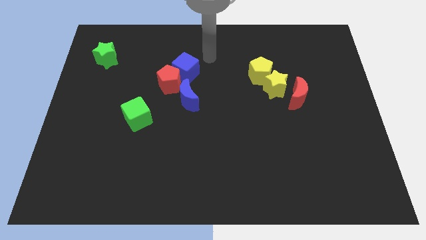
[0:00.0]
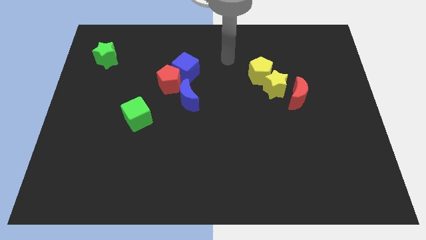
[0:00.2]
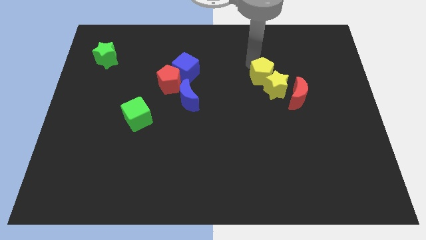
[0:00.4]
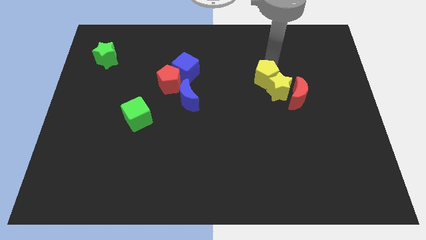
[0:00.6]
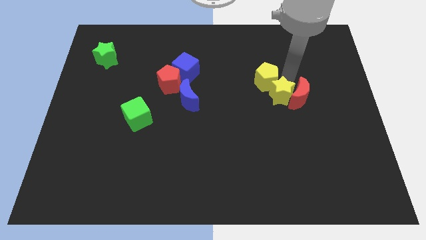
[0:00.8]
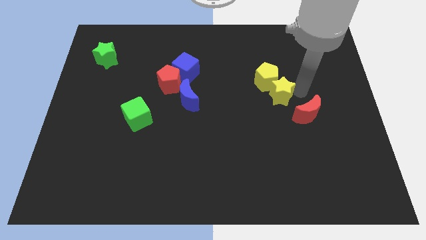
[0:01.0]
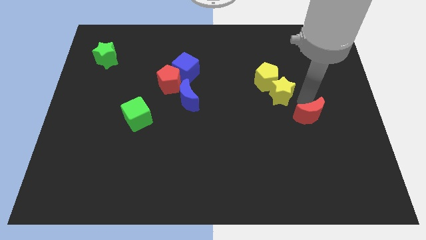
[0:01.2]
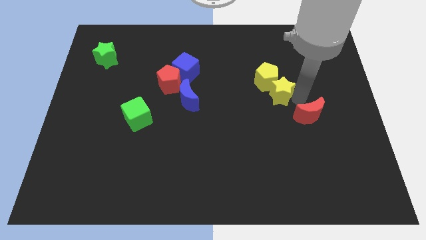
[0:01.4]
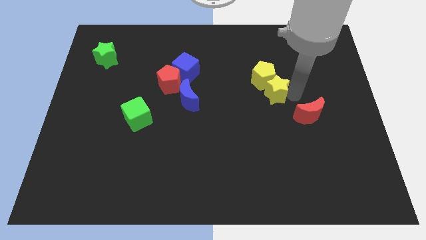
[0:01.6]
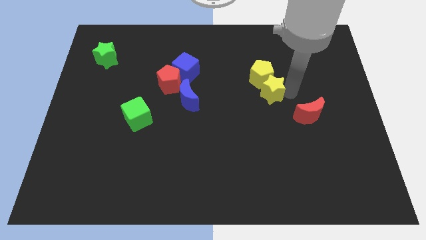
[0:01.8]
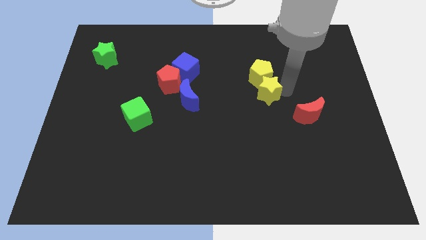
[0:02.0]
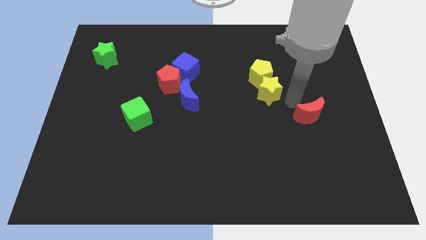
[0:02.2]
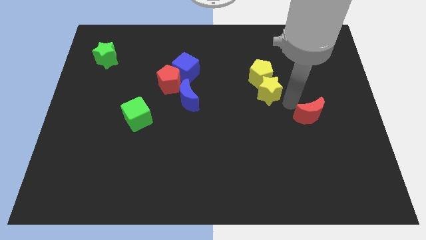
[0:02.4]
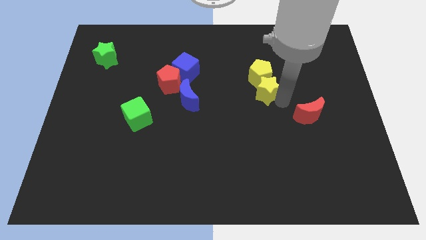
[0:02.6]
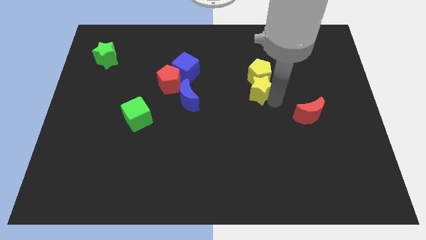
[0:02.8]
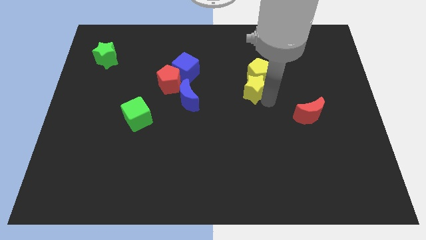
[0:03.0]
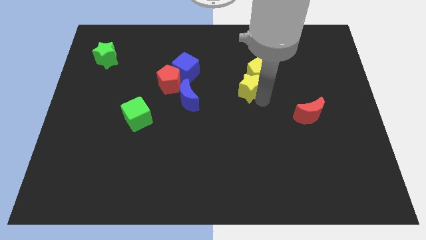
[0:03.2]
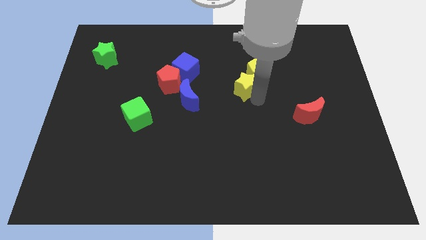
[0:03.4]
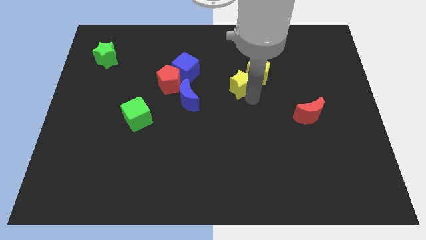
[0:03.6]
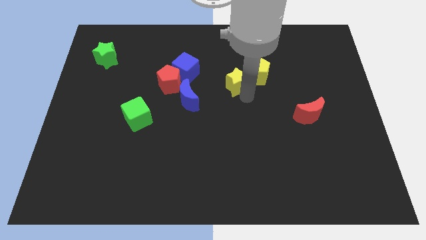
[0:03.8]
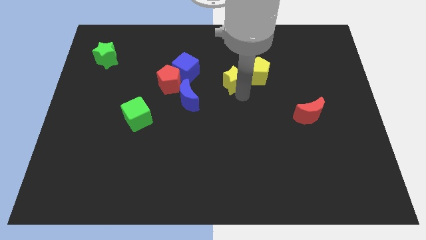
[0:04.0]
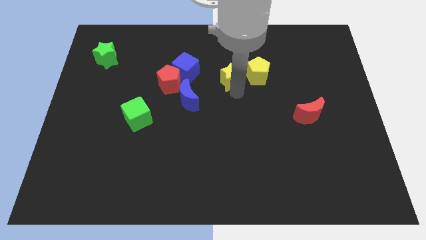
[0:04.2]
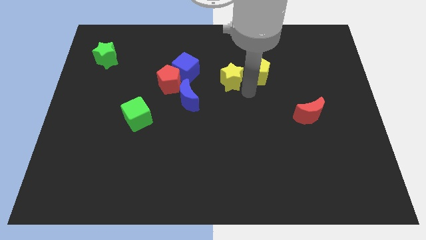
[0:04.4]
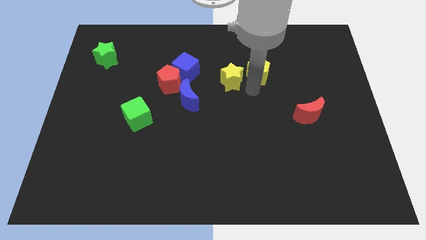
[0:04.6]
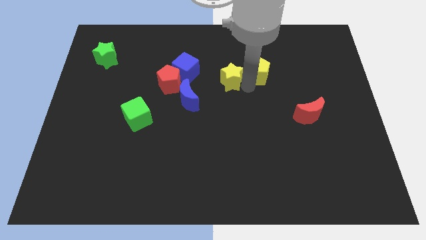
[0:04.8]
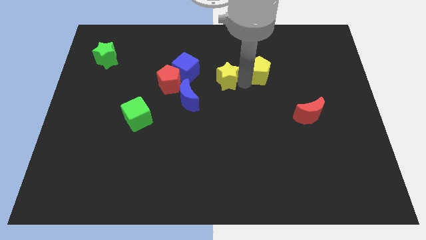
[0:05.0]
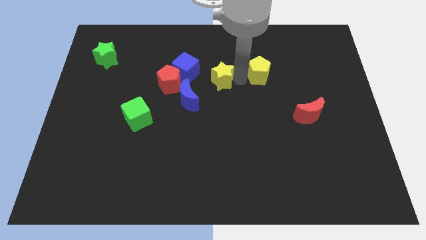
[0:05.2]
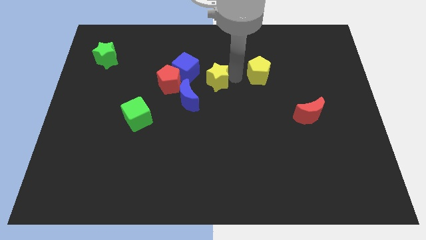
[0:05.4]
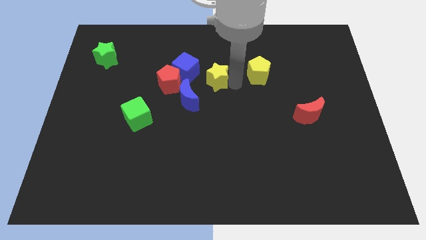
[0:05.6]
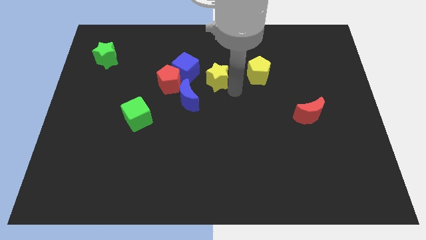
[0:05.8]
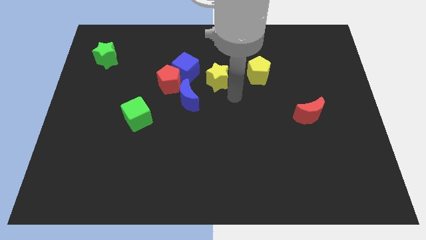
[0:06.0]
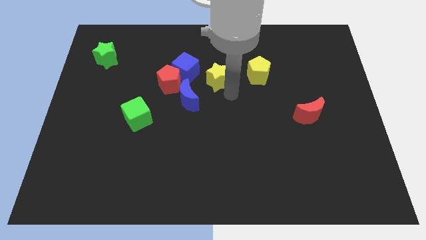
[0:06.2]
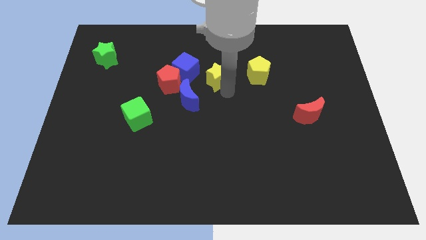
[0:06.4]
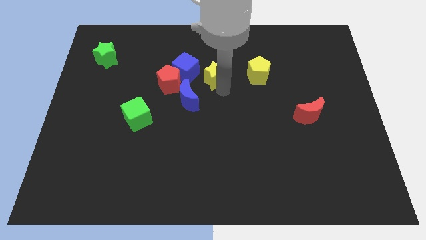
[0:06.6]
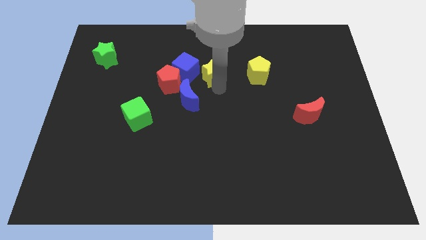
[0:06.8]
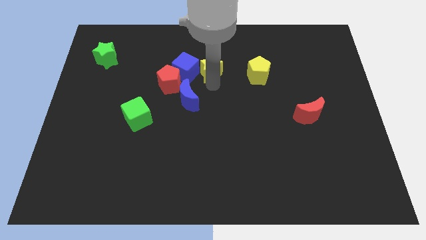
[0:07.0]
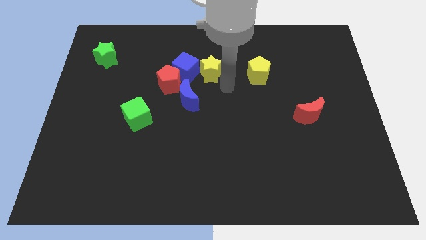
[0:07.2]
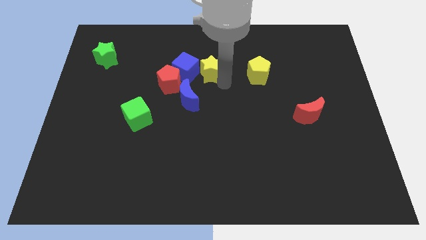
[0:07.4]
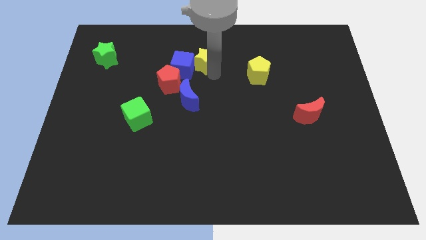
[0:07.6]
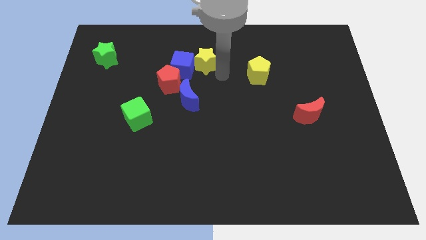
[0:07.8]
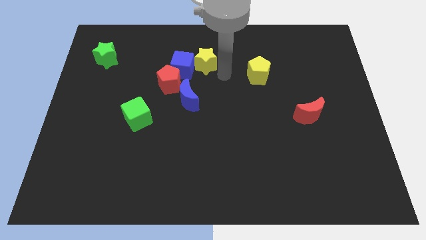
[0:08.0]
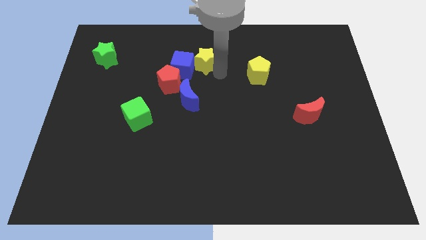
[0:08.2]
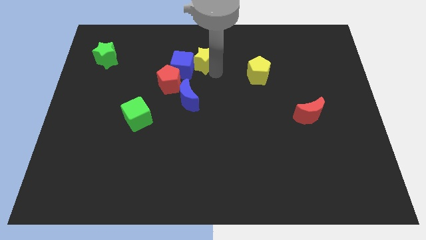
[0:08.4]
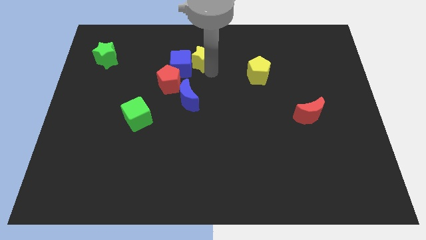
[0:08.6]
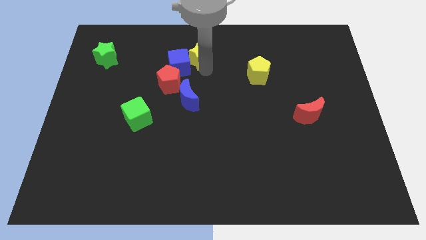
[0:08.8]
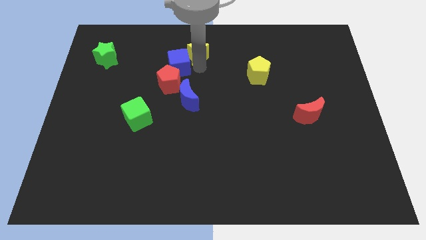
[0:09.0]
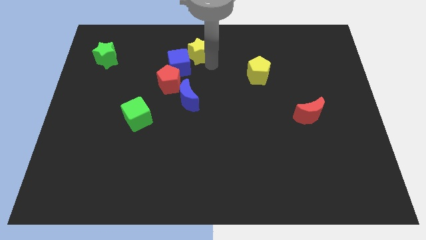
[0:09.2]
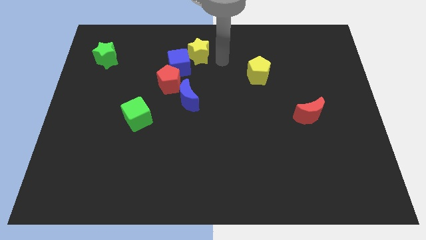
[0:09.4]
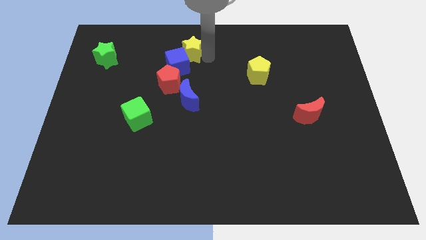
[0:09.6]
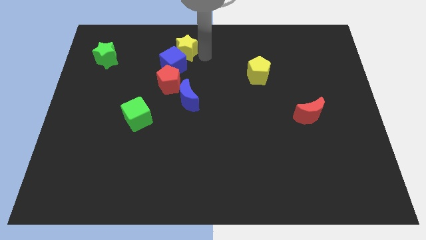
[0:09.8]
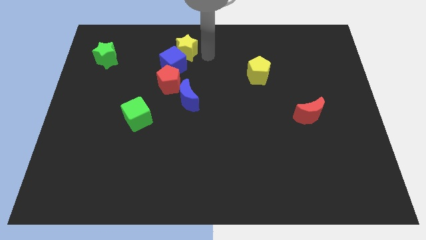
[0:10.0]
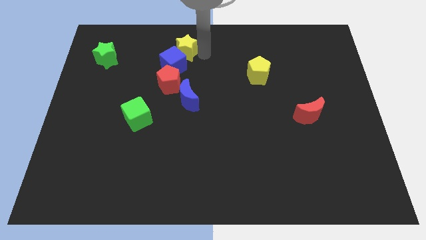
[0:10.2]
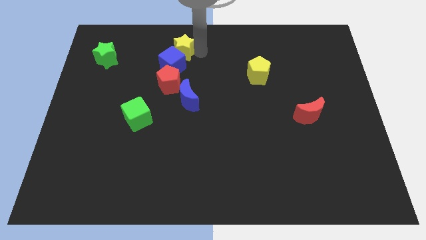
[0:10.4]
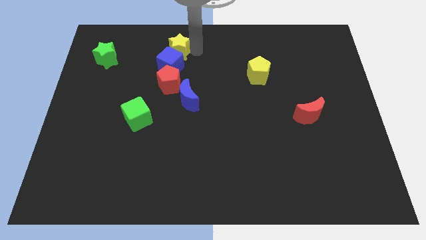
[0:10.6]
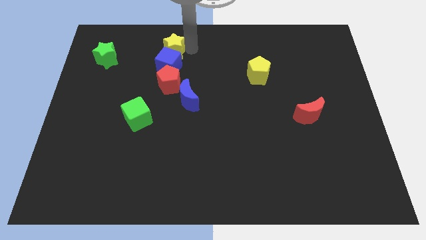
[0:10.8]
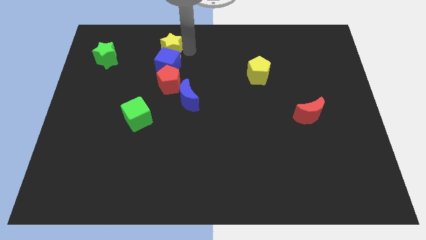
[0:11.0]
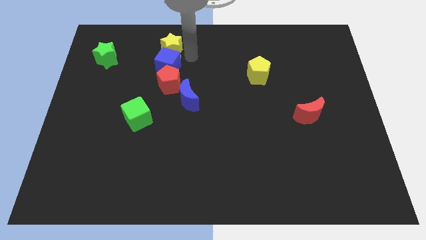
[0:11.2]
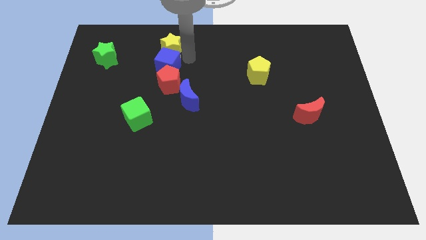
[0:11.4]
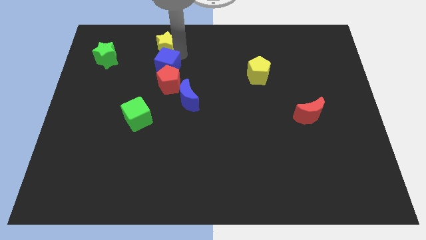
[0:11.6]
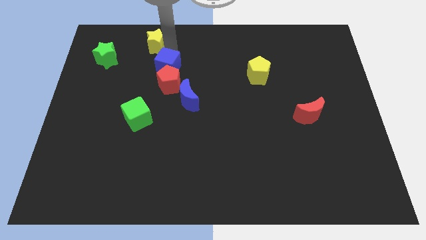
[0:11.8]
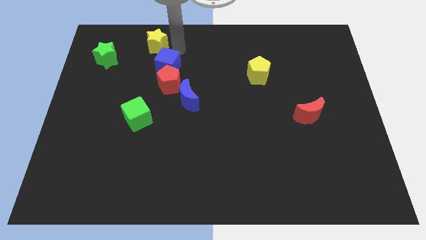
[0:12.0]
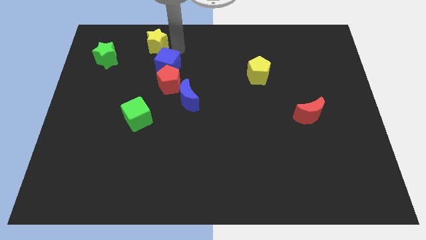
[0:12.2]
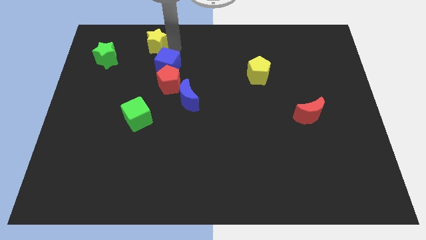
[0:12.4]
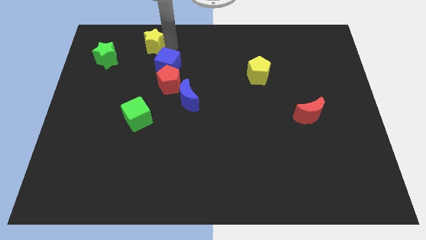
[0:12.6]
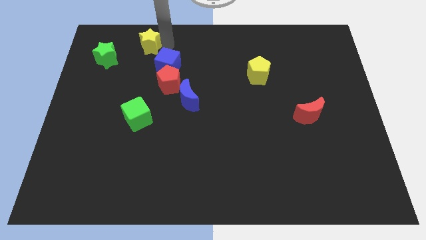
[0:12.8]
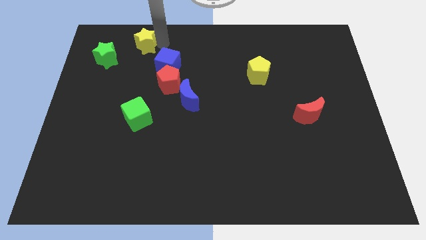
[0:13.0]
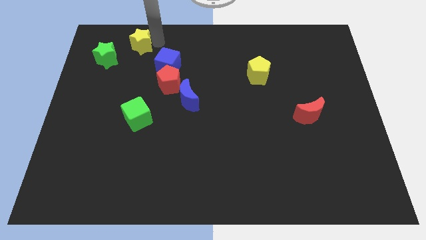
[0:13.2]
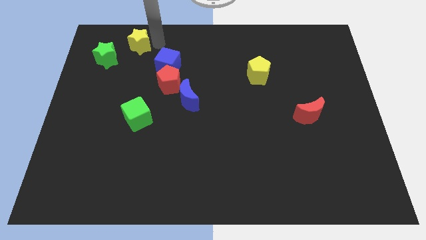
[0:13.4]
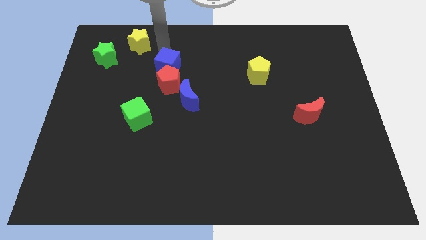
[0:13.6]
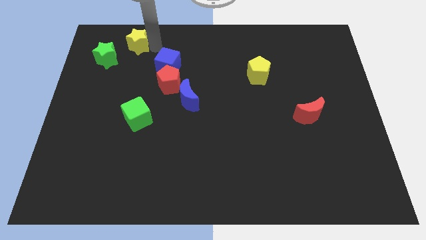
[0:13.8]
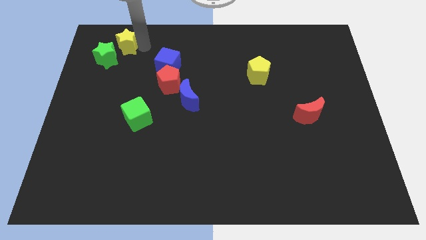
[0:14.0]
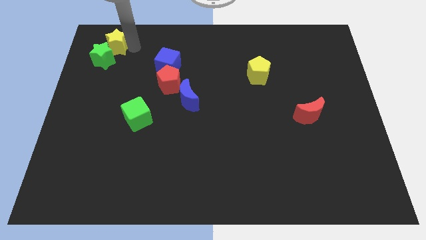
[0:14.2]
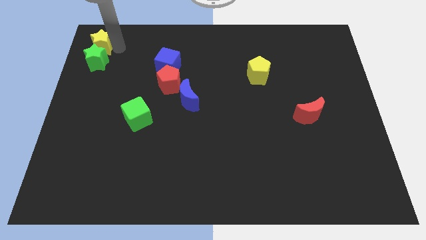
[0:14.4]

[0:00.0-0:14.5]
put the yellow star to the upper left corner

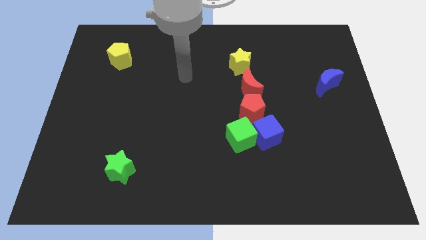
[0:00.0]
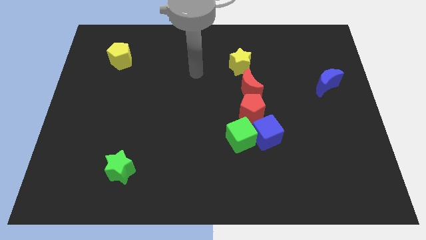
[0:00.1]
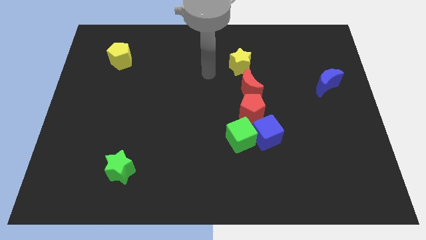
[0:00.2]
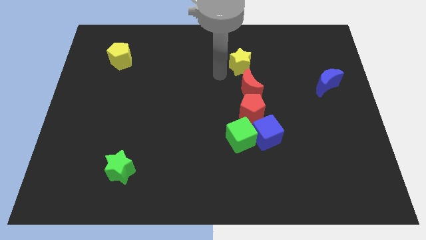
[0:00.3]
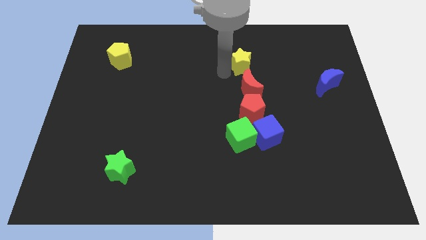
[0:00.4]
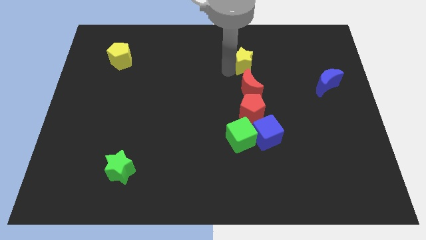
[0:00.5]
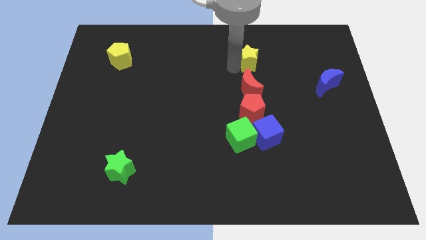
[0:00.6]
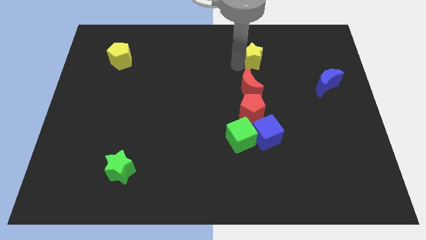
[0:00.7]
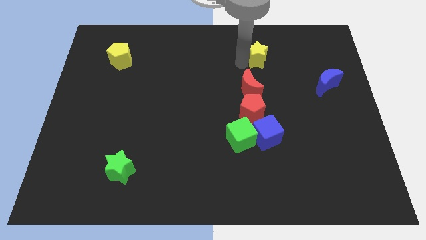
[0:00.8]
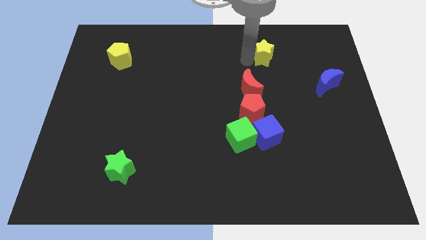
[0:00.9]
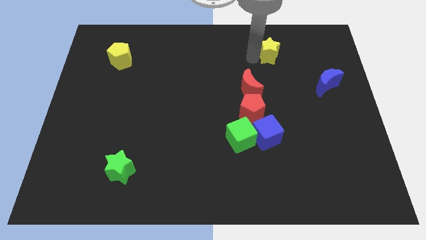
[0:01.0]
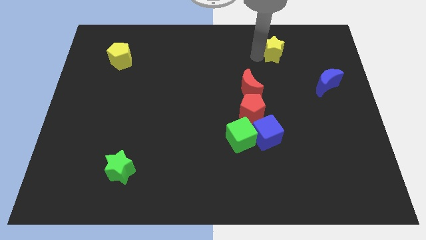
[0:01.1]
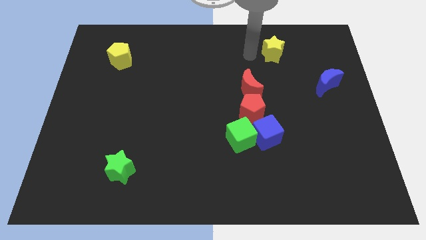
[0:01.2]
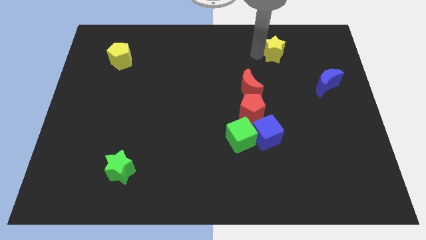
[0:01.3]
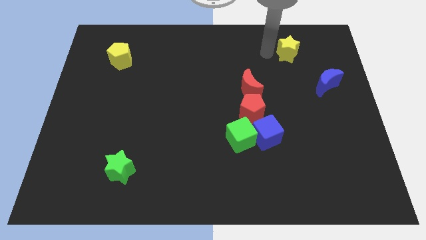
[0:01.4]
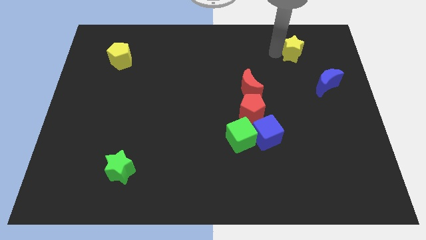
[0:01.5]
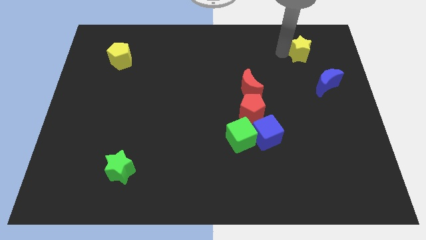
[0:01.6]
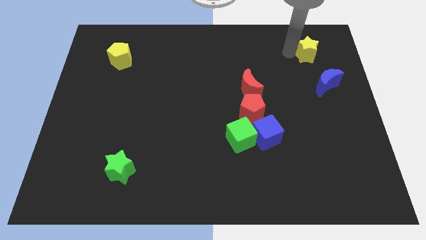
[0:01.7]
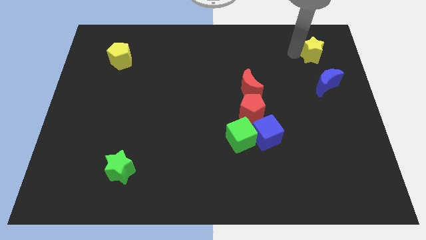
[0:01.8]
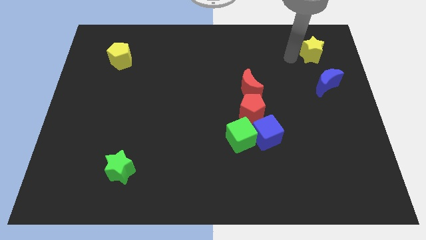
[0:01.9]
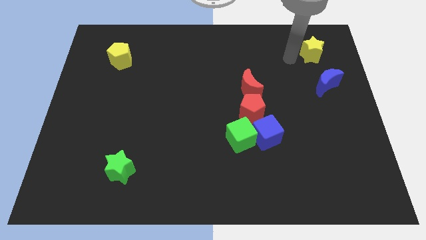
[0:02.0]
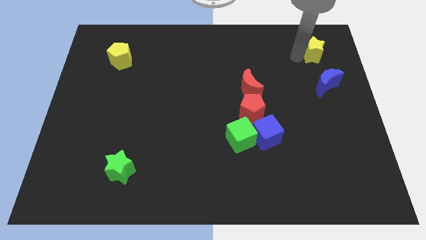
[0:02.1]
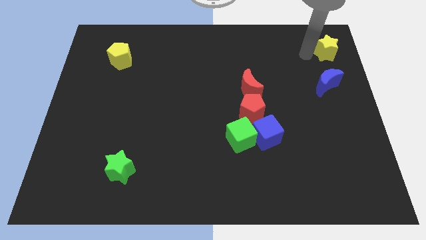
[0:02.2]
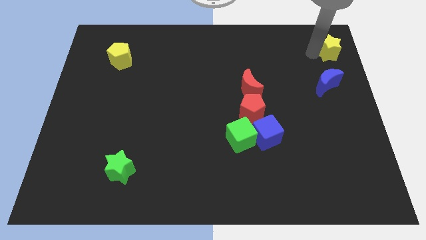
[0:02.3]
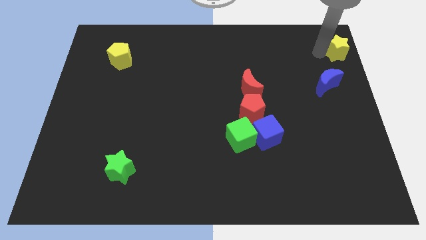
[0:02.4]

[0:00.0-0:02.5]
put the yellow star to the upper right corner
